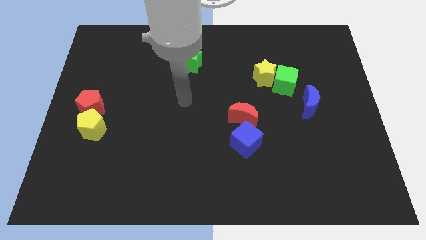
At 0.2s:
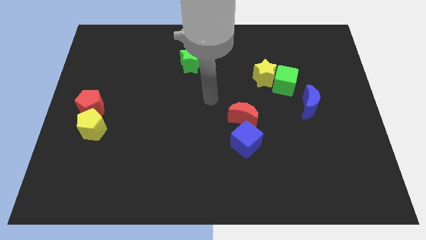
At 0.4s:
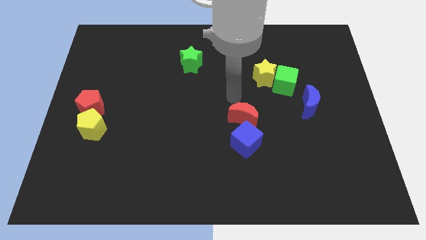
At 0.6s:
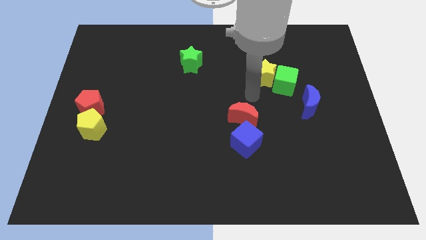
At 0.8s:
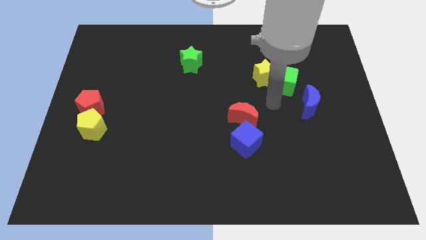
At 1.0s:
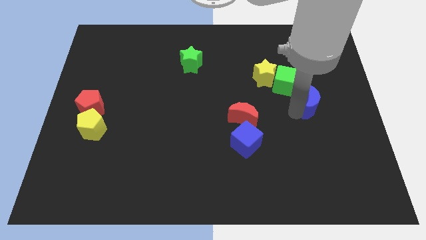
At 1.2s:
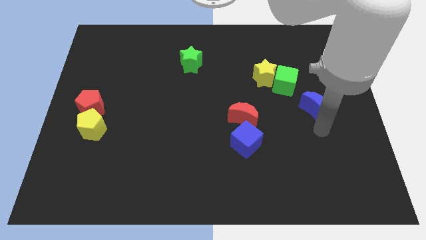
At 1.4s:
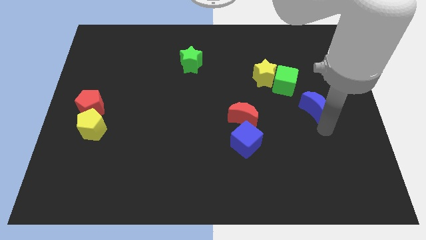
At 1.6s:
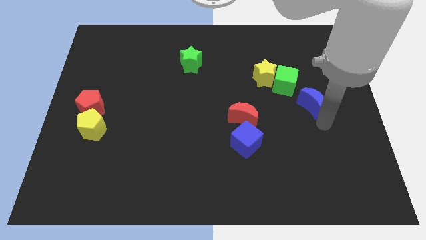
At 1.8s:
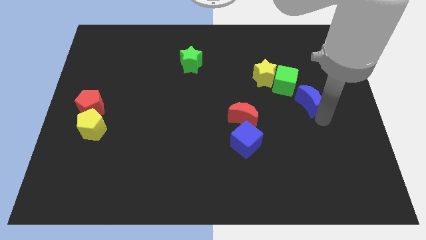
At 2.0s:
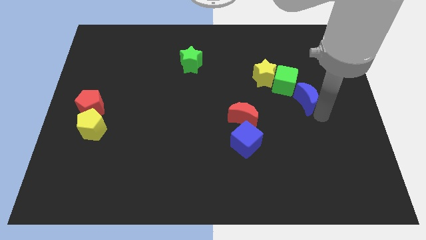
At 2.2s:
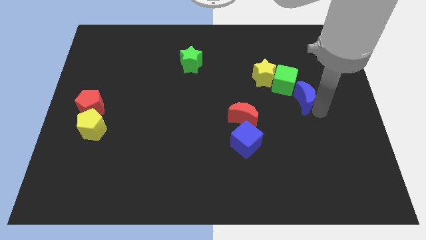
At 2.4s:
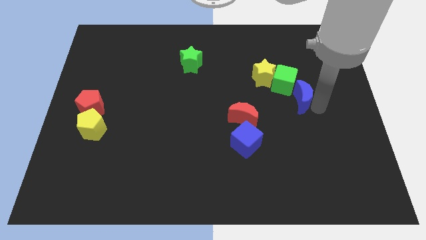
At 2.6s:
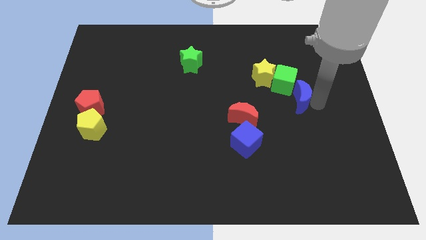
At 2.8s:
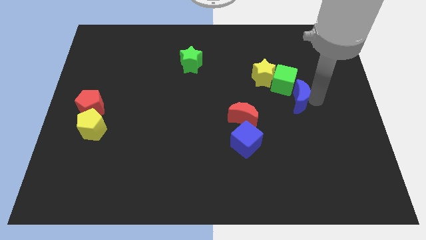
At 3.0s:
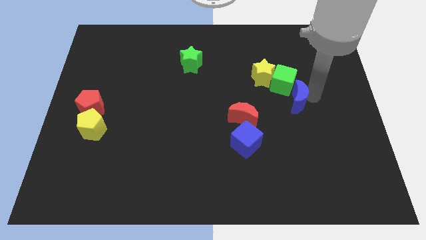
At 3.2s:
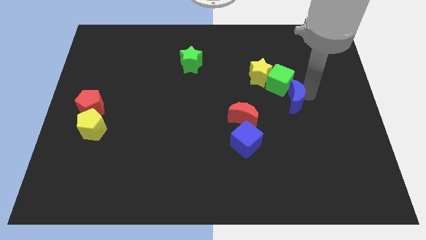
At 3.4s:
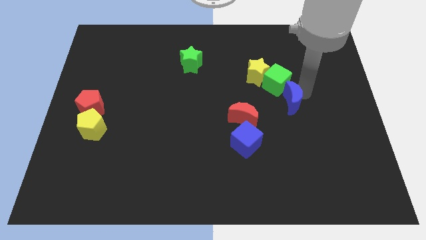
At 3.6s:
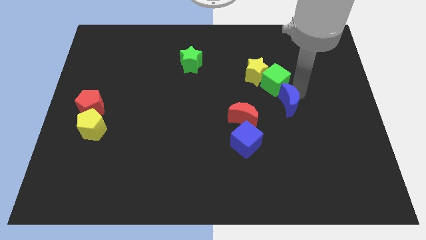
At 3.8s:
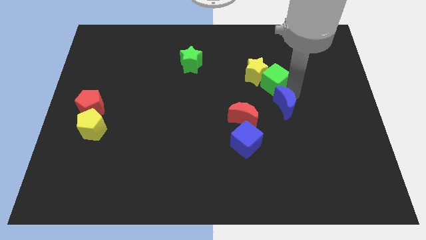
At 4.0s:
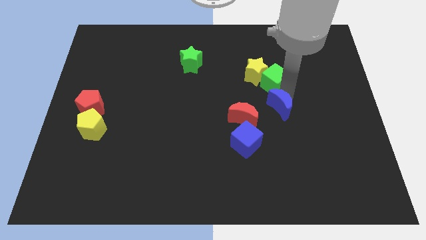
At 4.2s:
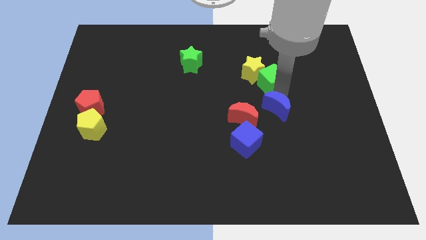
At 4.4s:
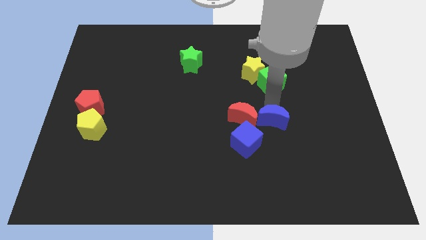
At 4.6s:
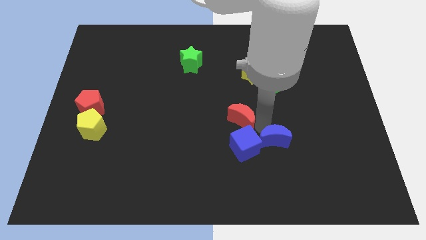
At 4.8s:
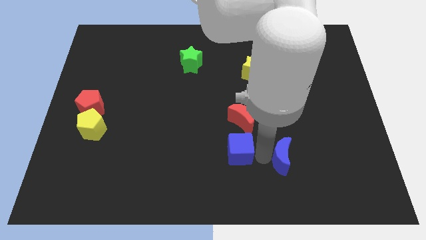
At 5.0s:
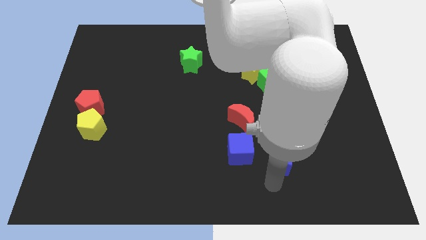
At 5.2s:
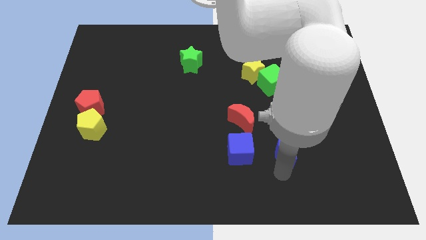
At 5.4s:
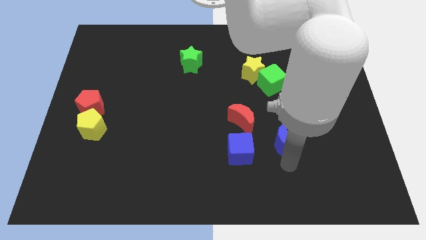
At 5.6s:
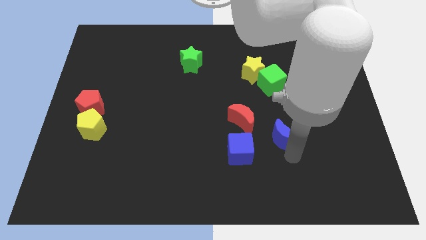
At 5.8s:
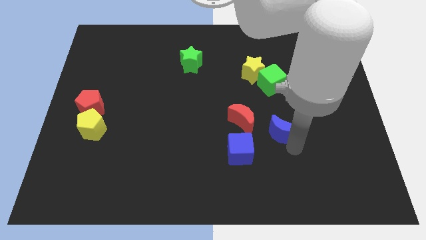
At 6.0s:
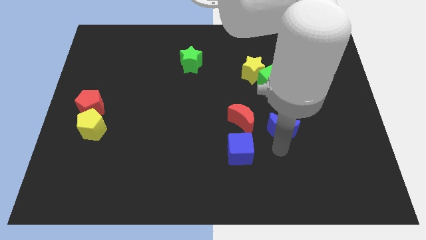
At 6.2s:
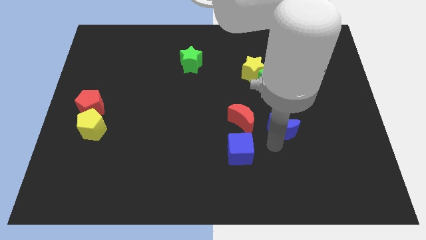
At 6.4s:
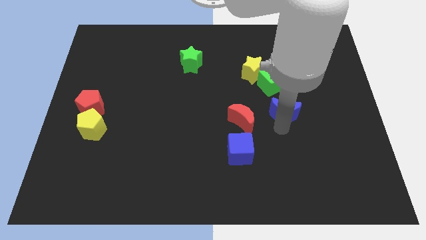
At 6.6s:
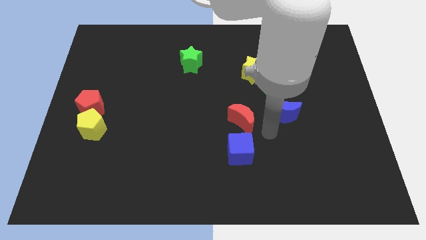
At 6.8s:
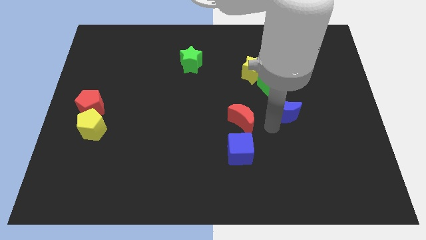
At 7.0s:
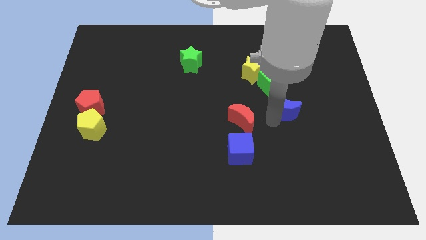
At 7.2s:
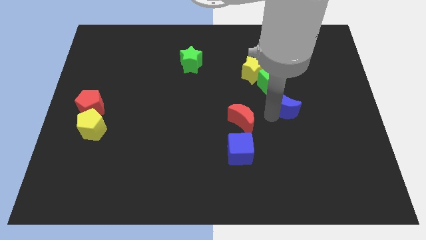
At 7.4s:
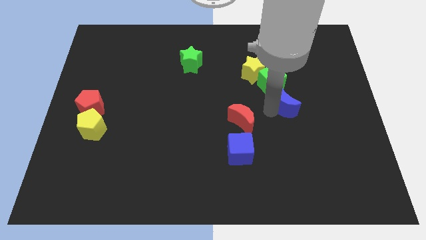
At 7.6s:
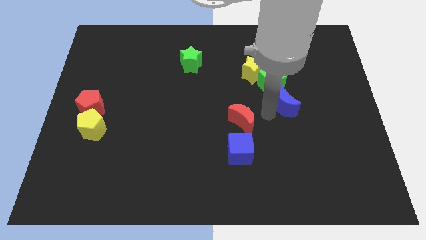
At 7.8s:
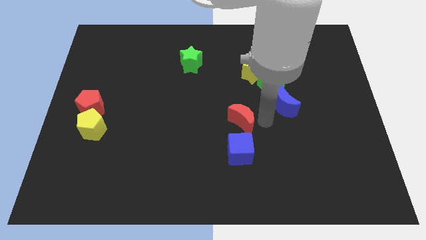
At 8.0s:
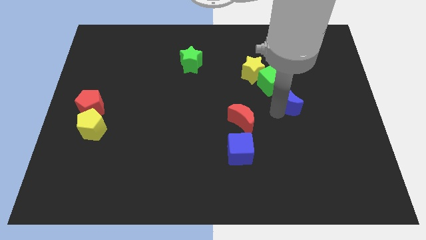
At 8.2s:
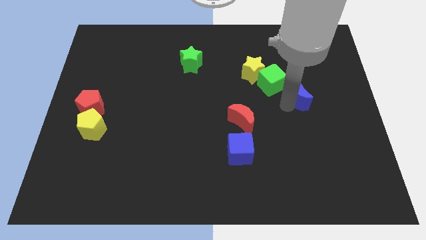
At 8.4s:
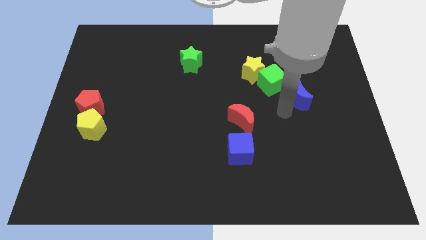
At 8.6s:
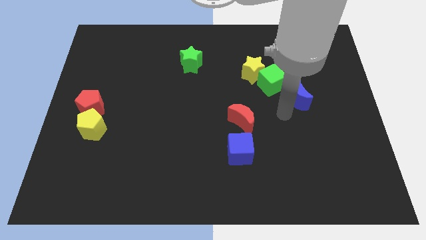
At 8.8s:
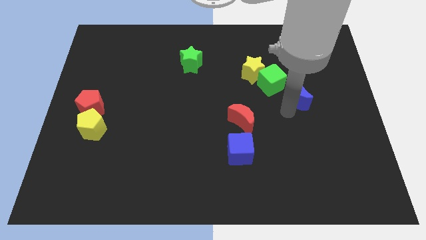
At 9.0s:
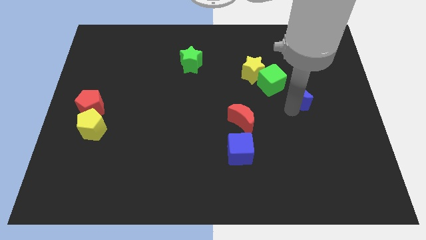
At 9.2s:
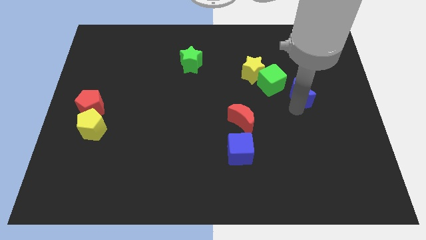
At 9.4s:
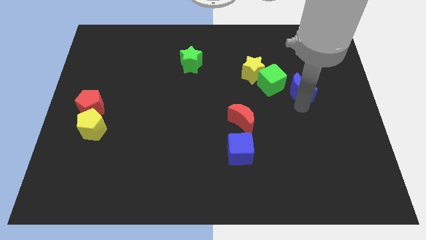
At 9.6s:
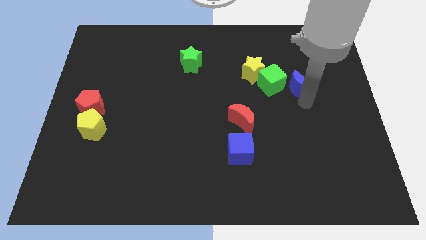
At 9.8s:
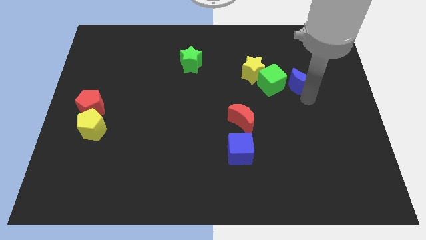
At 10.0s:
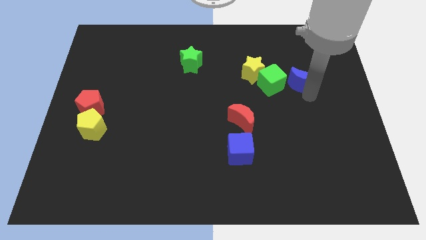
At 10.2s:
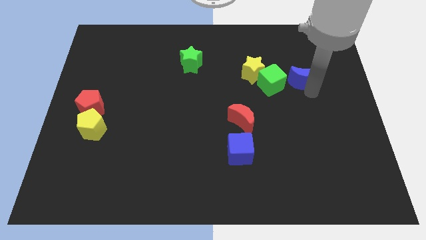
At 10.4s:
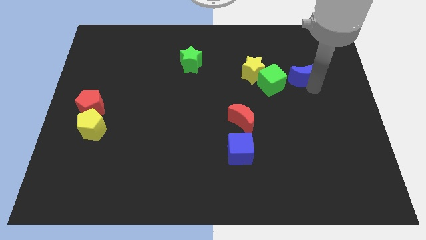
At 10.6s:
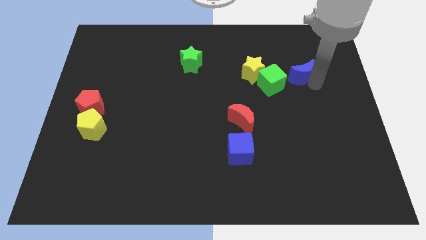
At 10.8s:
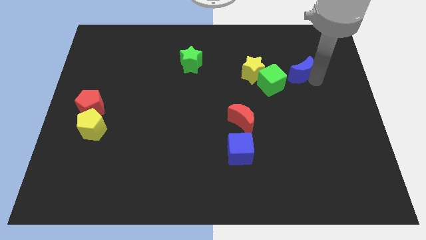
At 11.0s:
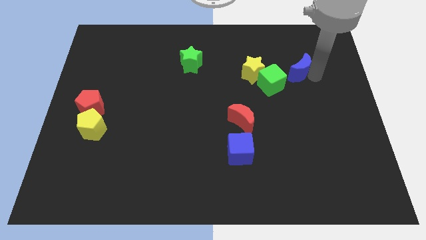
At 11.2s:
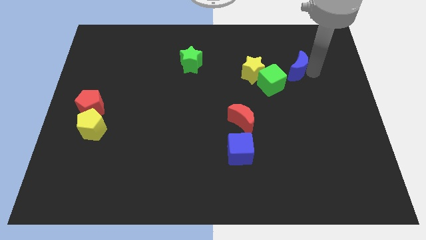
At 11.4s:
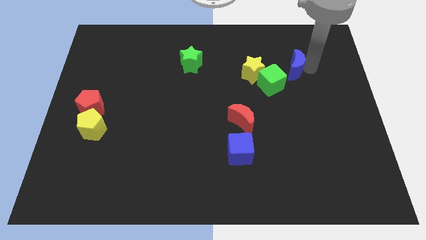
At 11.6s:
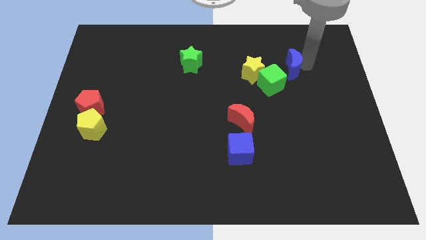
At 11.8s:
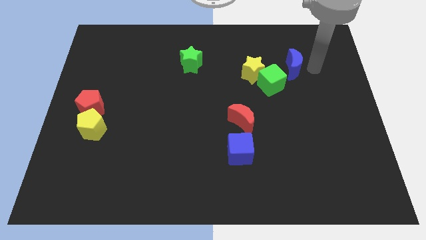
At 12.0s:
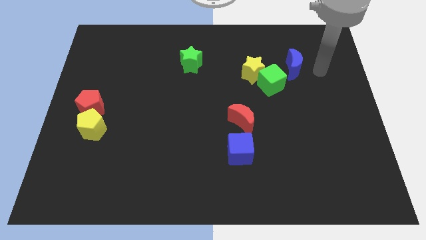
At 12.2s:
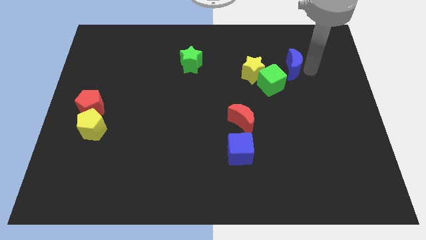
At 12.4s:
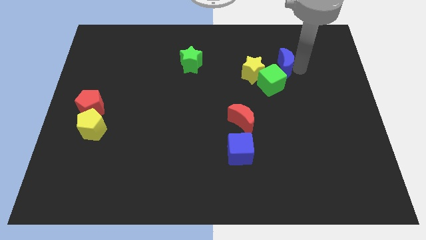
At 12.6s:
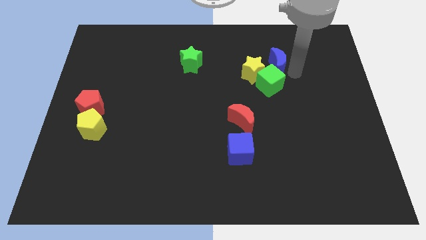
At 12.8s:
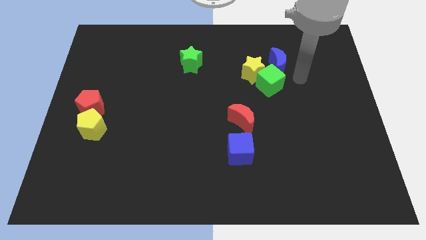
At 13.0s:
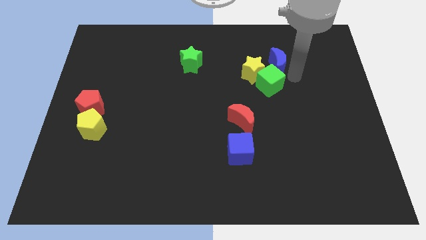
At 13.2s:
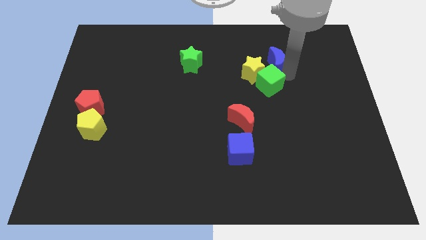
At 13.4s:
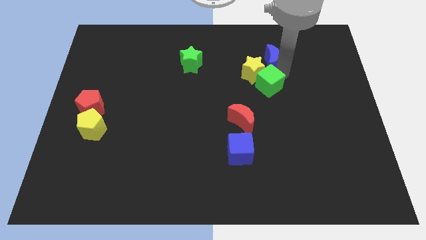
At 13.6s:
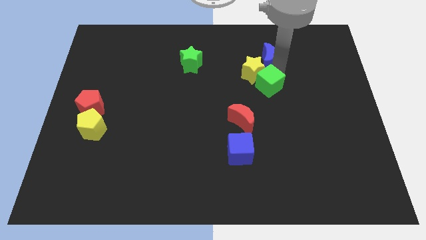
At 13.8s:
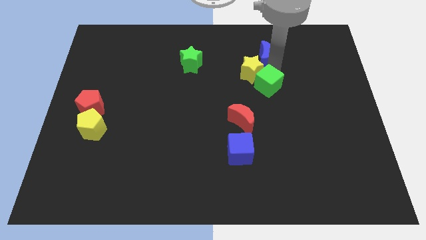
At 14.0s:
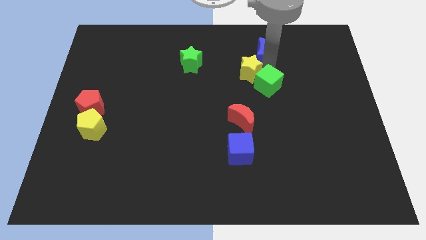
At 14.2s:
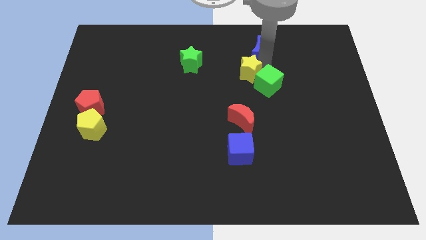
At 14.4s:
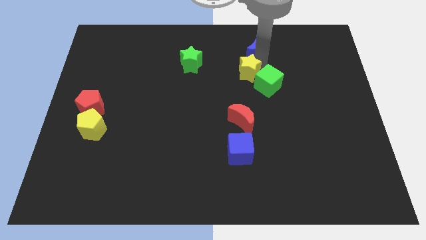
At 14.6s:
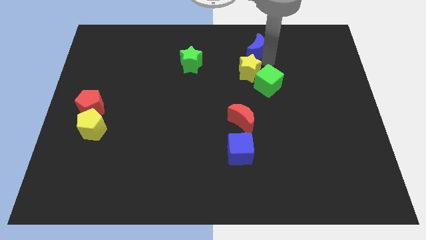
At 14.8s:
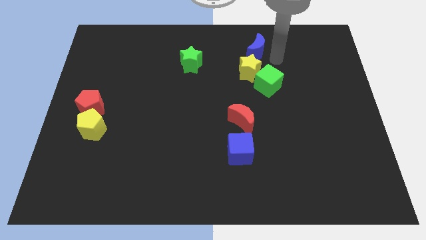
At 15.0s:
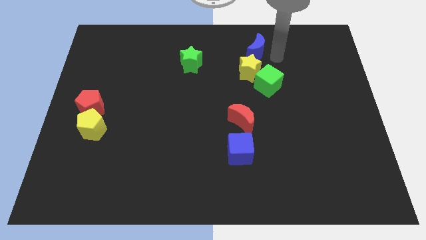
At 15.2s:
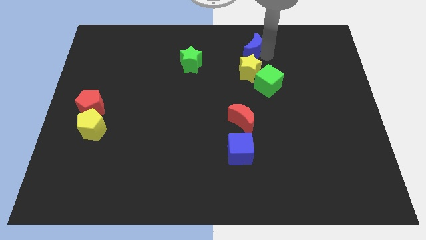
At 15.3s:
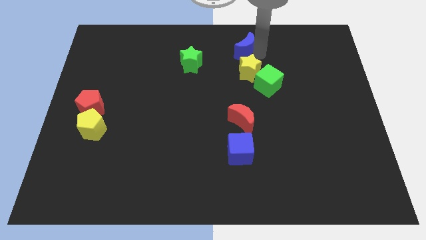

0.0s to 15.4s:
put the blue moon to the top side
